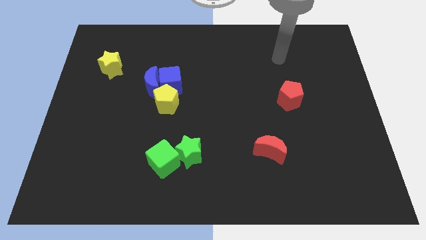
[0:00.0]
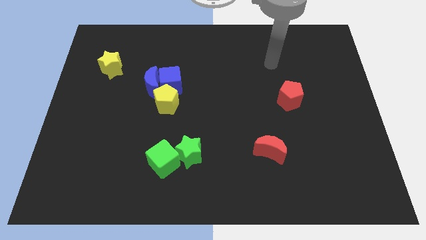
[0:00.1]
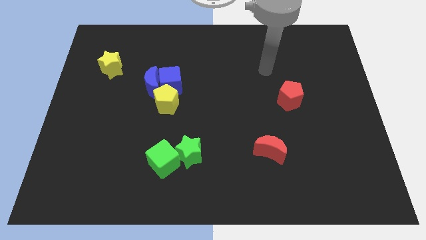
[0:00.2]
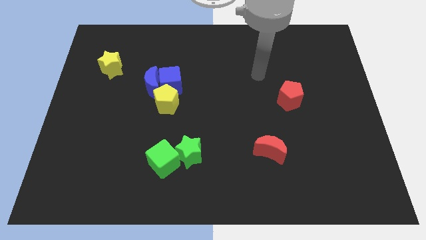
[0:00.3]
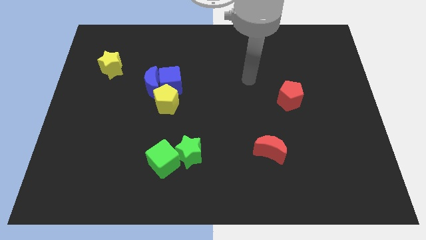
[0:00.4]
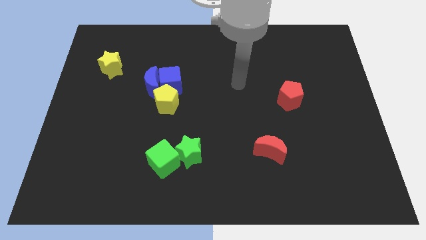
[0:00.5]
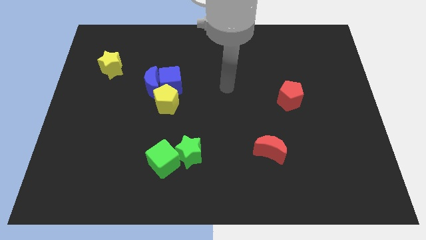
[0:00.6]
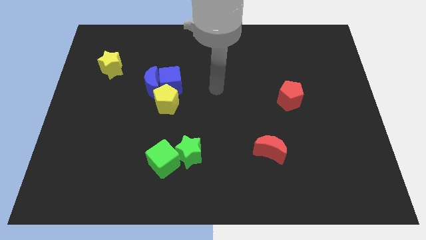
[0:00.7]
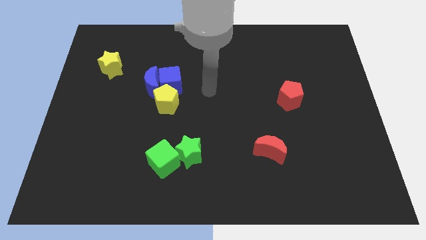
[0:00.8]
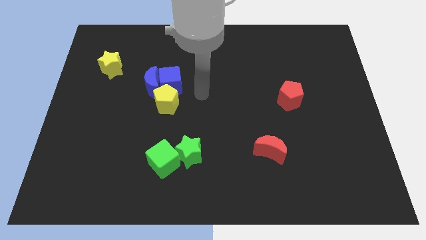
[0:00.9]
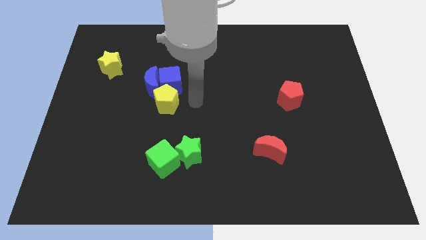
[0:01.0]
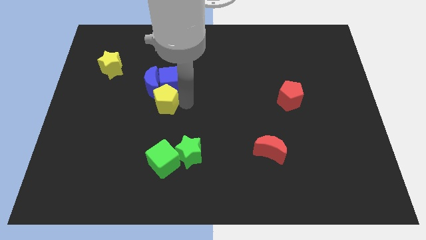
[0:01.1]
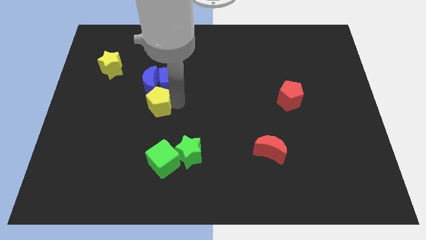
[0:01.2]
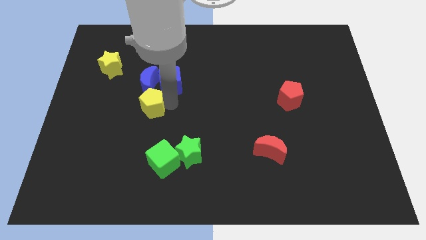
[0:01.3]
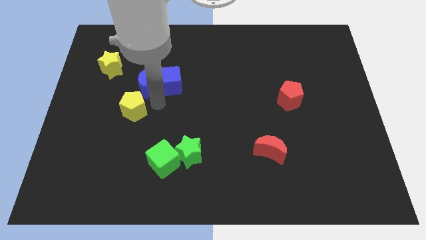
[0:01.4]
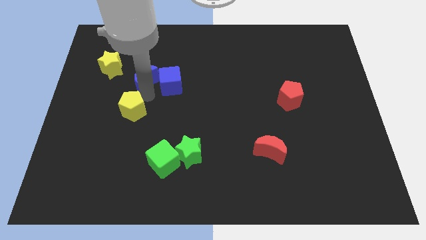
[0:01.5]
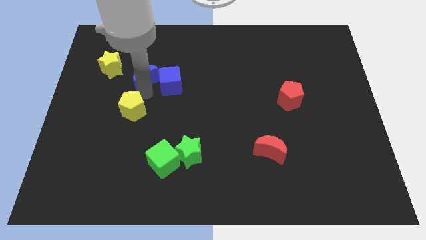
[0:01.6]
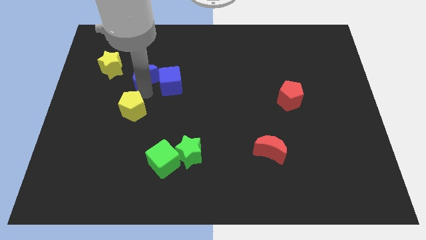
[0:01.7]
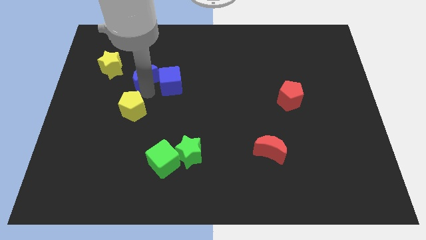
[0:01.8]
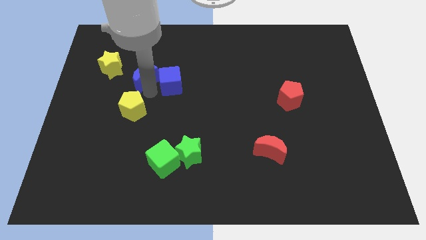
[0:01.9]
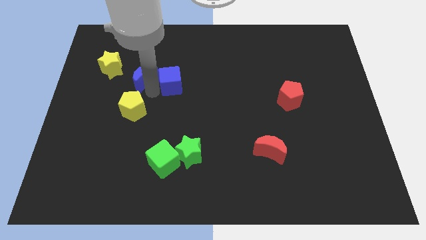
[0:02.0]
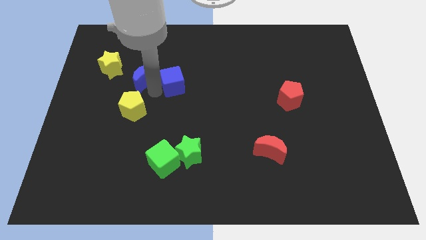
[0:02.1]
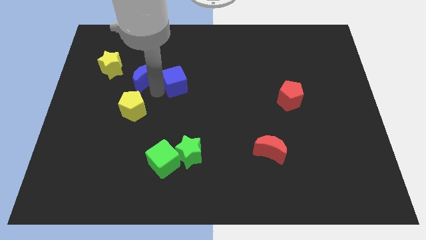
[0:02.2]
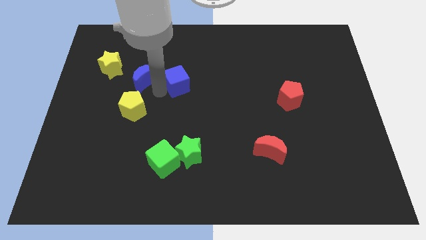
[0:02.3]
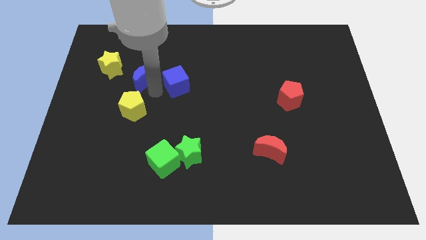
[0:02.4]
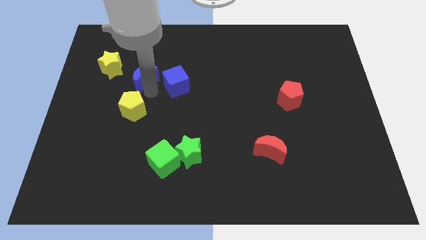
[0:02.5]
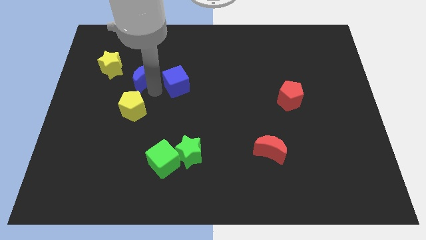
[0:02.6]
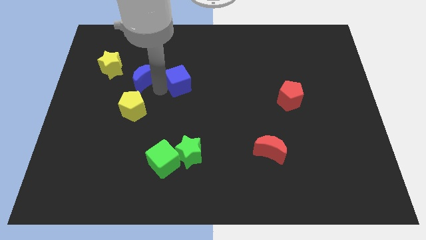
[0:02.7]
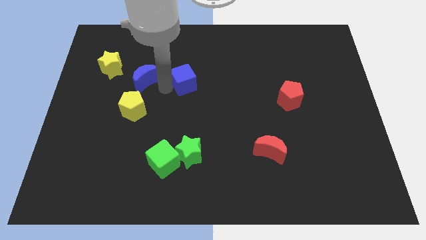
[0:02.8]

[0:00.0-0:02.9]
move the blue cube away from the blue moon and yellow pentagon

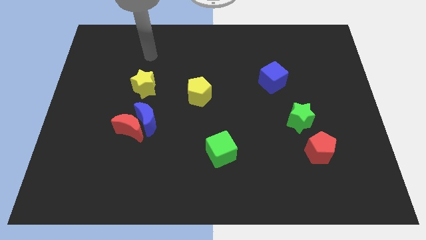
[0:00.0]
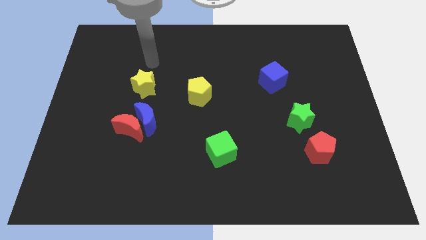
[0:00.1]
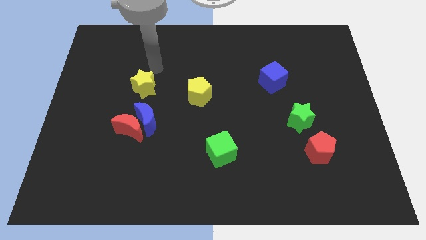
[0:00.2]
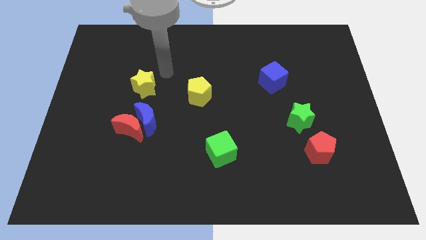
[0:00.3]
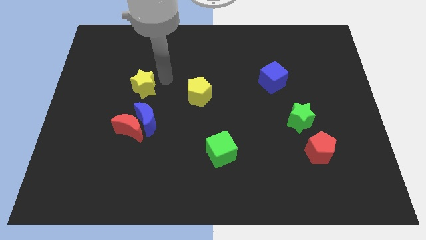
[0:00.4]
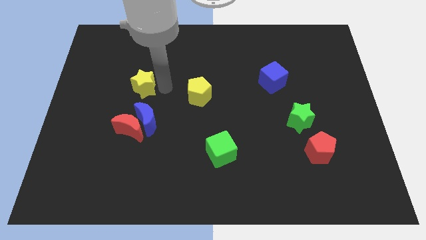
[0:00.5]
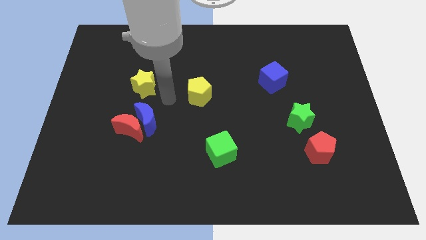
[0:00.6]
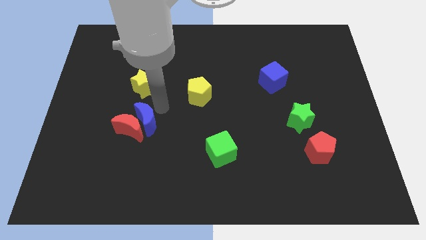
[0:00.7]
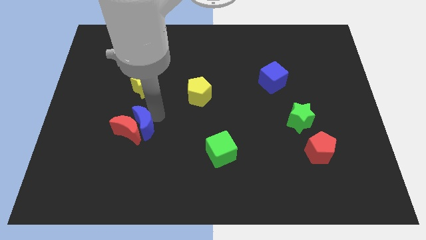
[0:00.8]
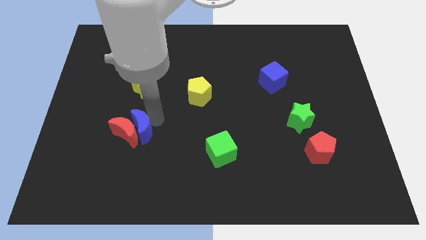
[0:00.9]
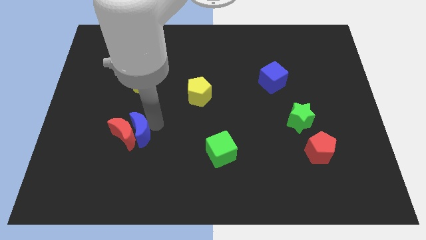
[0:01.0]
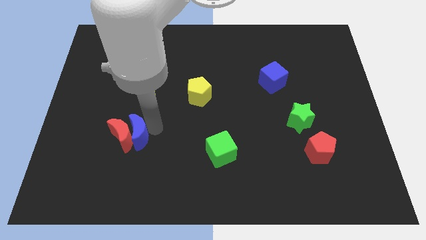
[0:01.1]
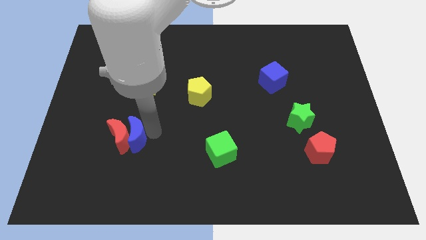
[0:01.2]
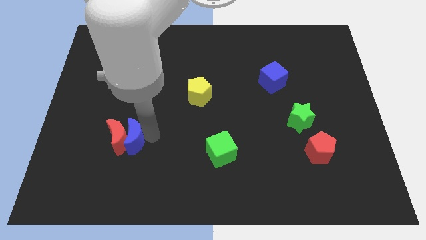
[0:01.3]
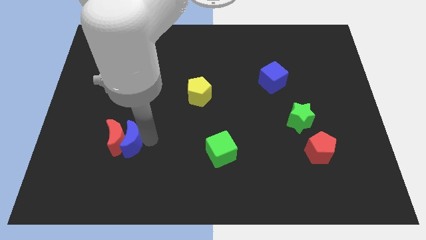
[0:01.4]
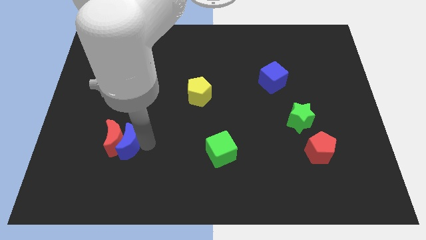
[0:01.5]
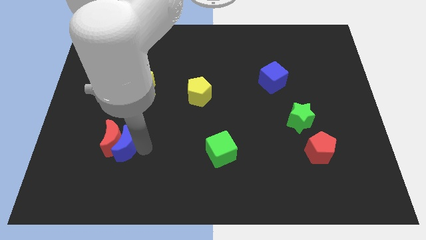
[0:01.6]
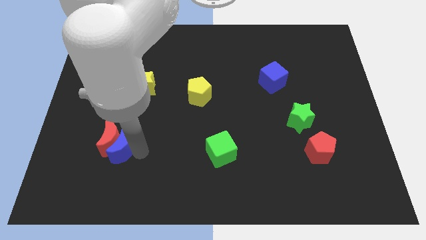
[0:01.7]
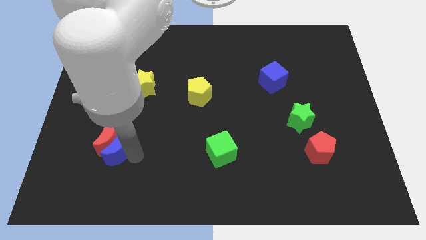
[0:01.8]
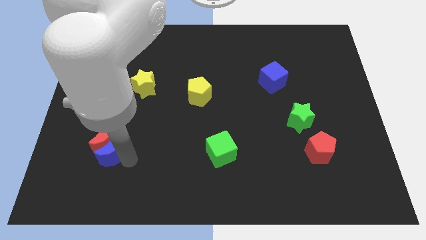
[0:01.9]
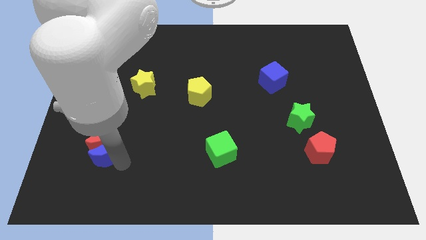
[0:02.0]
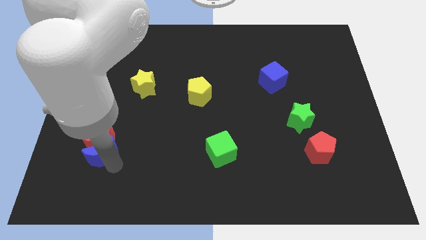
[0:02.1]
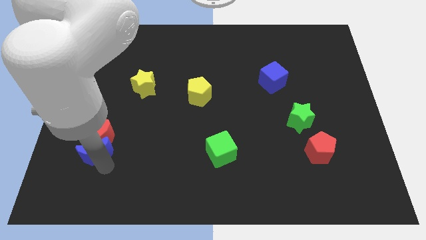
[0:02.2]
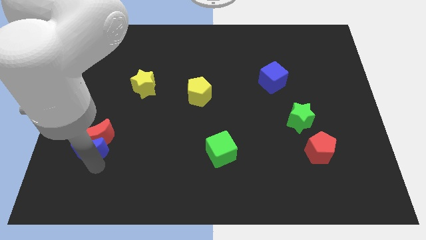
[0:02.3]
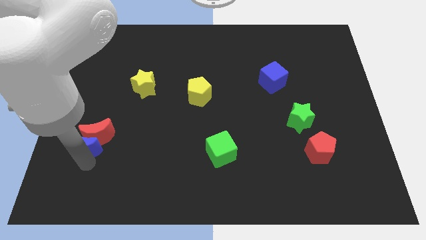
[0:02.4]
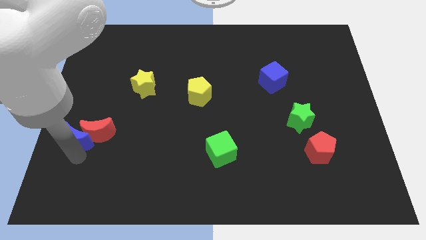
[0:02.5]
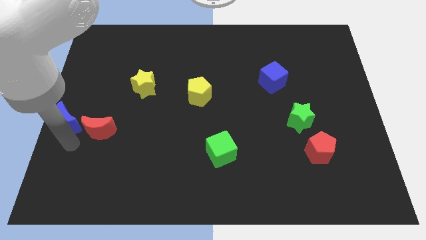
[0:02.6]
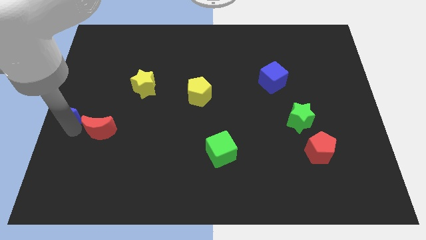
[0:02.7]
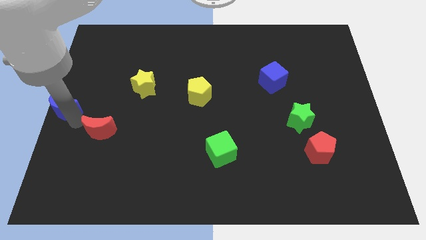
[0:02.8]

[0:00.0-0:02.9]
move the red moon away from the blue moon

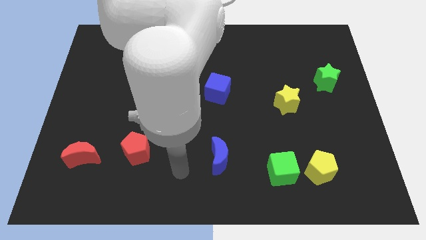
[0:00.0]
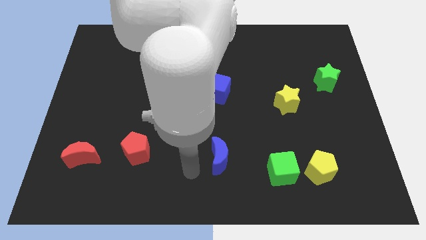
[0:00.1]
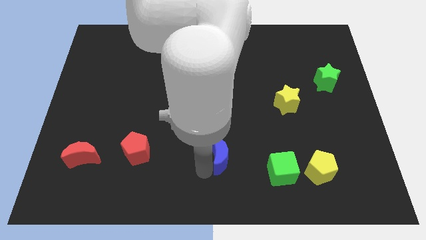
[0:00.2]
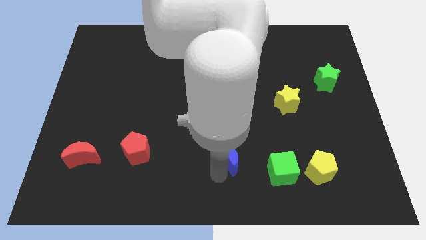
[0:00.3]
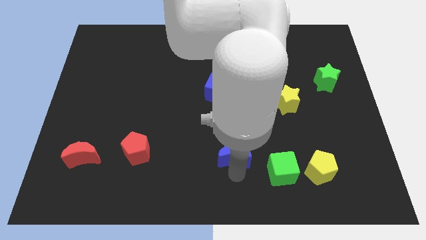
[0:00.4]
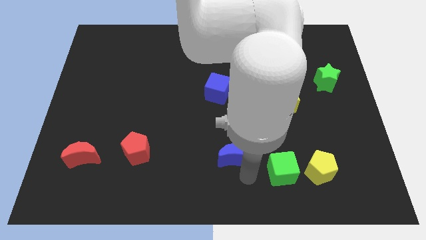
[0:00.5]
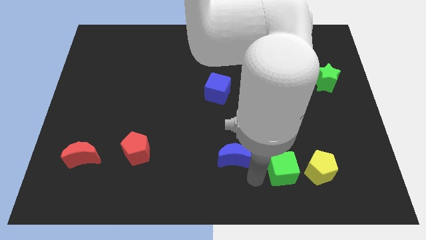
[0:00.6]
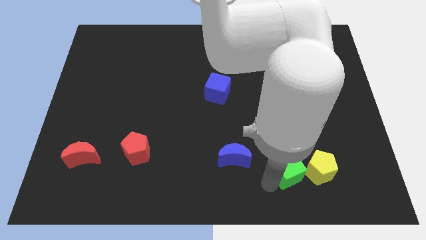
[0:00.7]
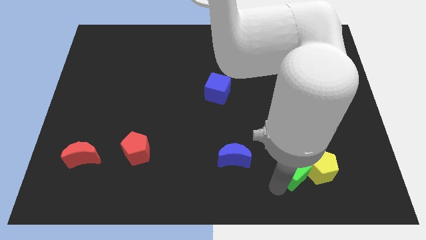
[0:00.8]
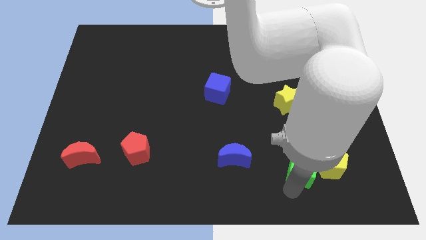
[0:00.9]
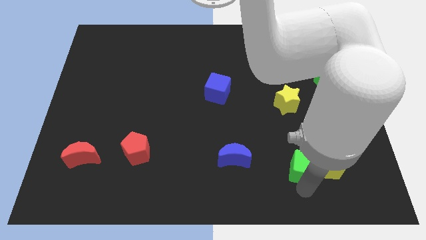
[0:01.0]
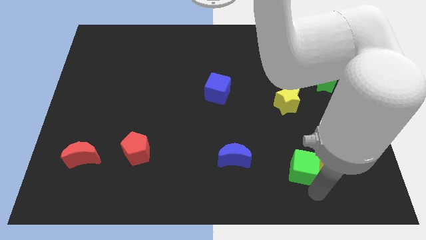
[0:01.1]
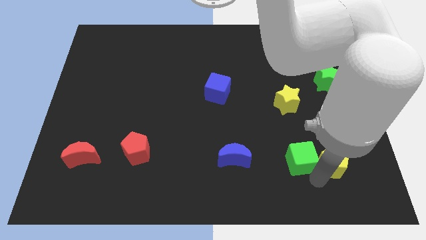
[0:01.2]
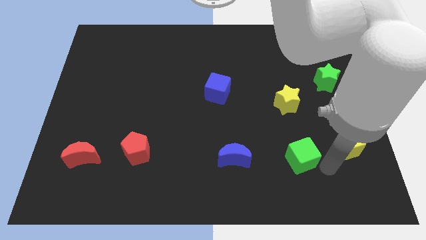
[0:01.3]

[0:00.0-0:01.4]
separate the green cube from the yellow pentagon

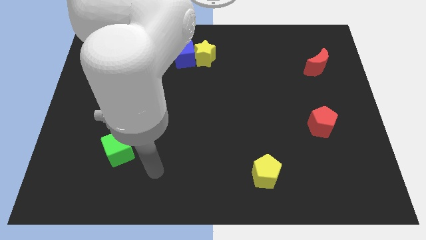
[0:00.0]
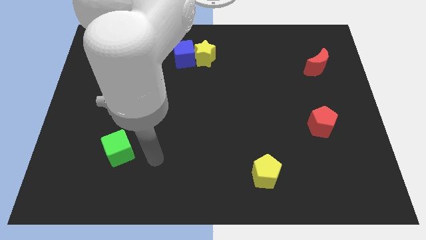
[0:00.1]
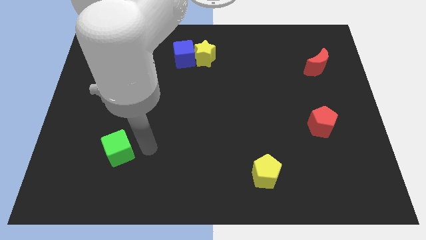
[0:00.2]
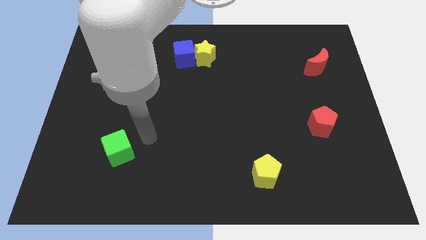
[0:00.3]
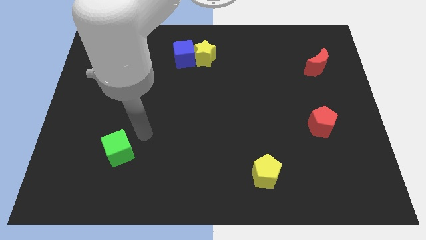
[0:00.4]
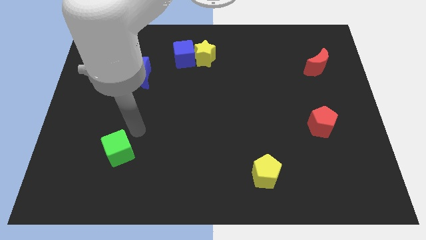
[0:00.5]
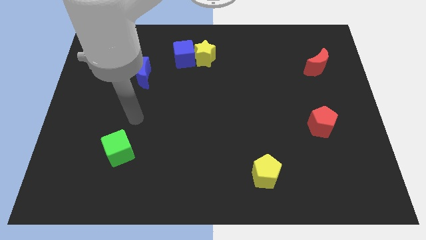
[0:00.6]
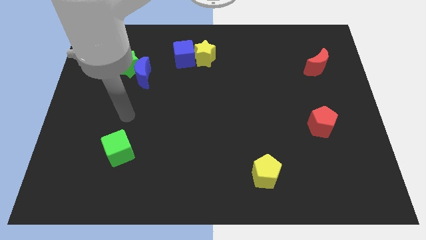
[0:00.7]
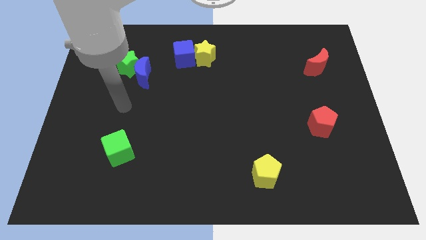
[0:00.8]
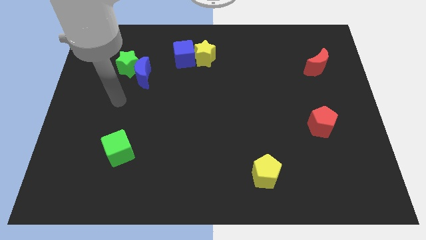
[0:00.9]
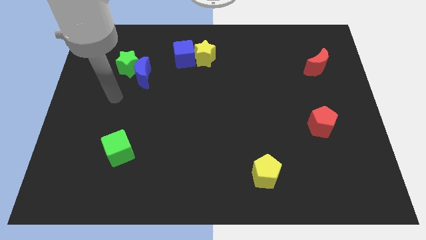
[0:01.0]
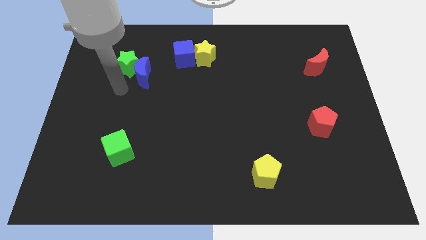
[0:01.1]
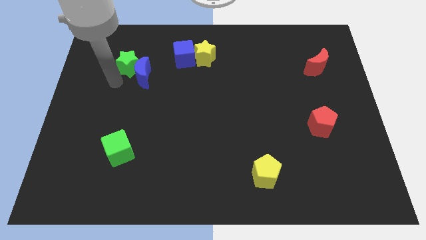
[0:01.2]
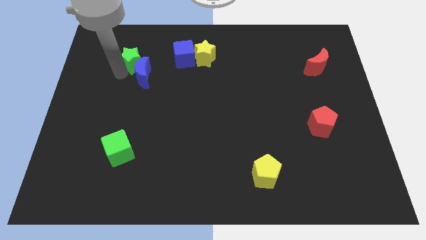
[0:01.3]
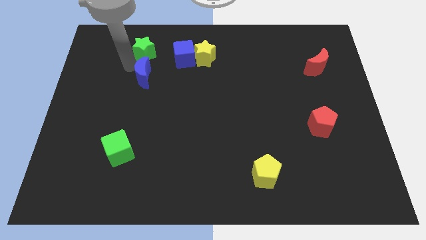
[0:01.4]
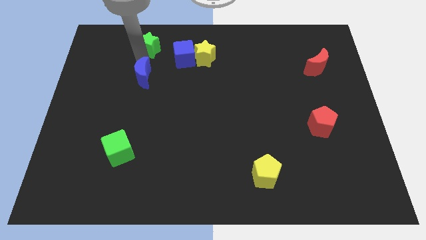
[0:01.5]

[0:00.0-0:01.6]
separate the blue moon from the green star

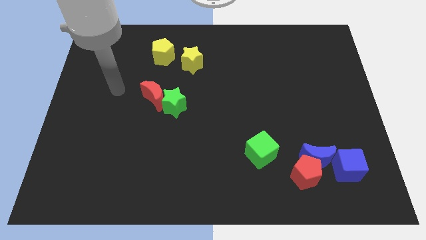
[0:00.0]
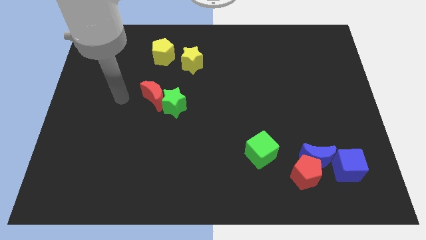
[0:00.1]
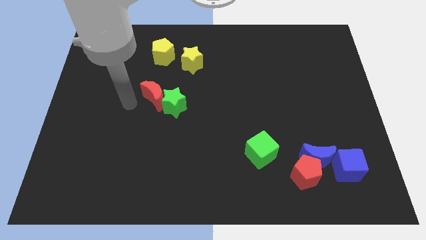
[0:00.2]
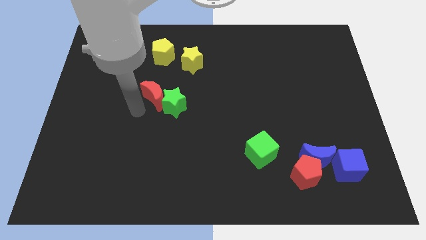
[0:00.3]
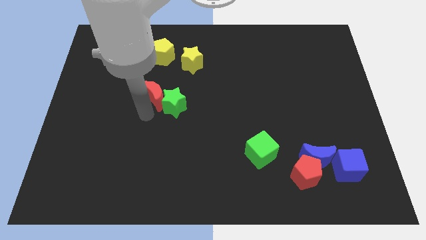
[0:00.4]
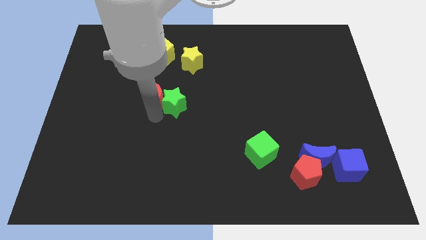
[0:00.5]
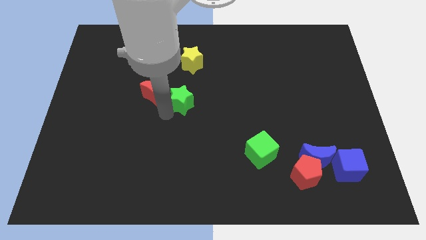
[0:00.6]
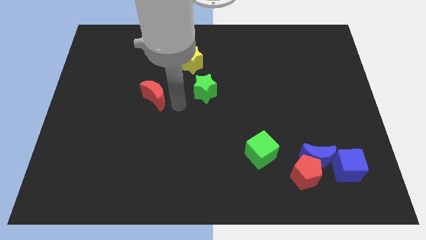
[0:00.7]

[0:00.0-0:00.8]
move the red moon away from the green star
